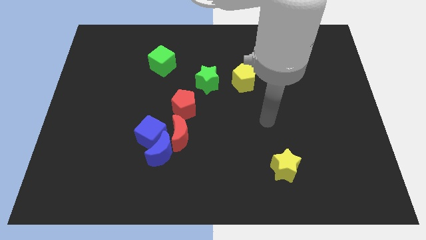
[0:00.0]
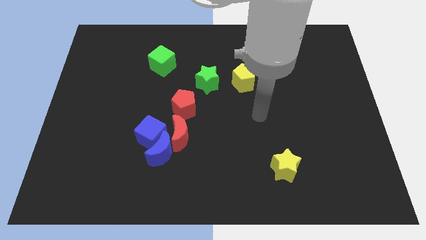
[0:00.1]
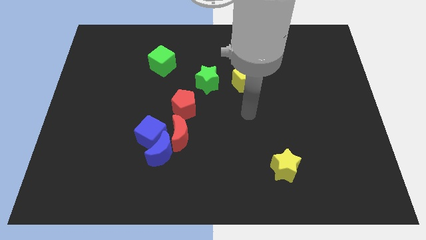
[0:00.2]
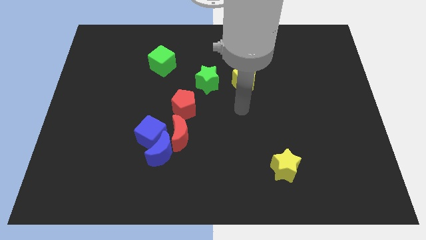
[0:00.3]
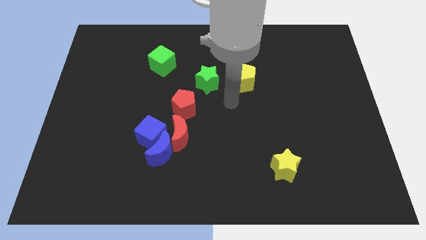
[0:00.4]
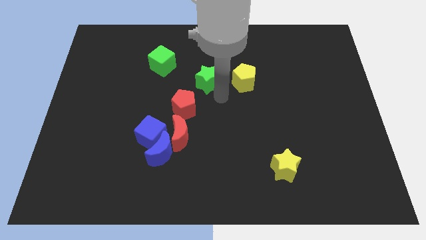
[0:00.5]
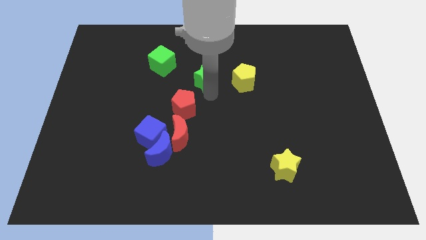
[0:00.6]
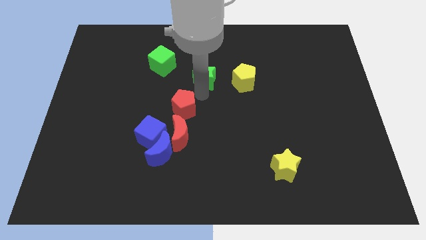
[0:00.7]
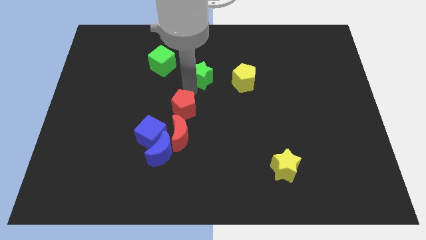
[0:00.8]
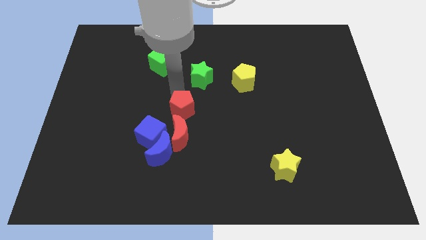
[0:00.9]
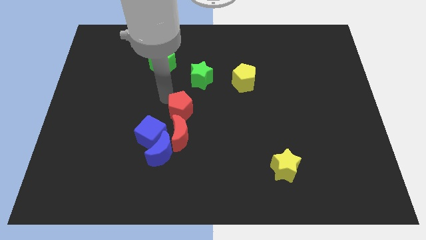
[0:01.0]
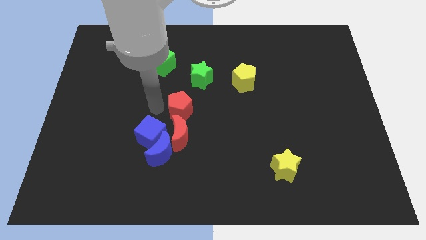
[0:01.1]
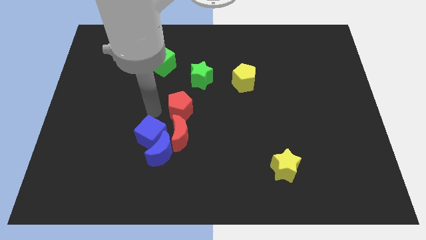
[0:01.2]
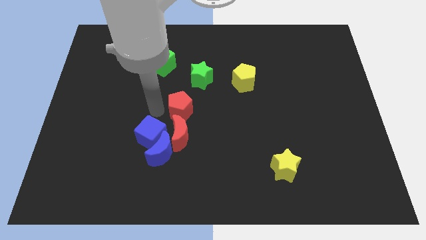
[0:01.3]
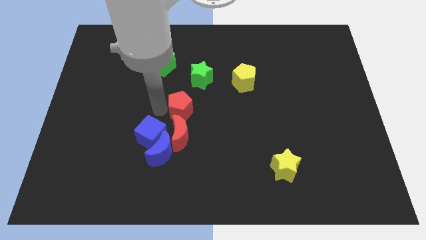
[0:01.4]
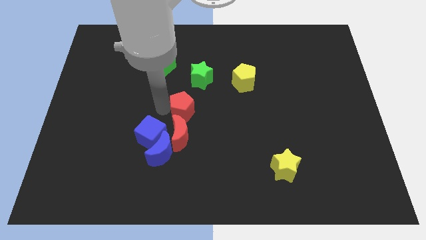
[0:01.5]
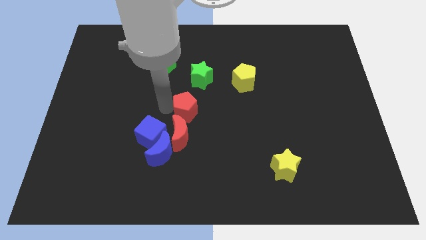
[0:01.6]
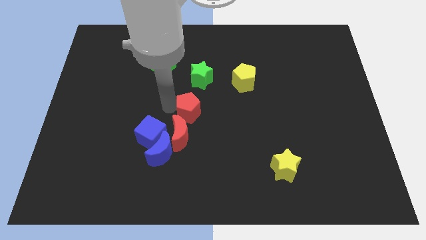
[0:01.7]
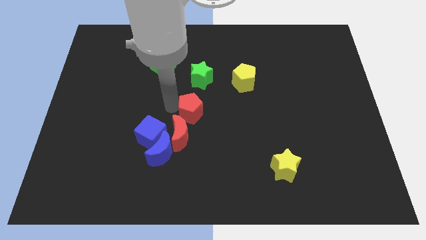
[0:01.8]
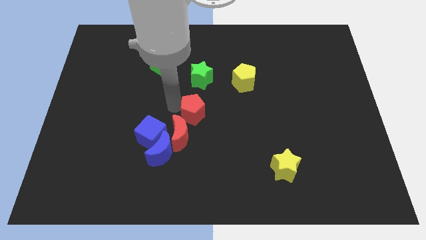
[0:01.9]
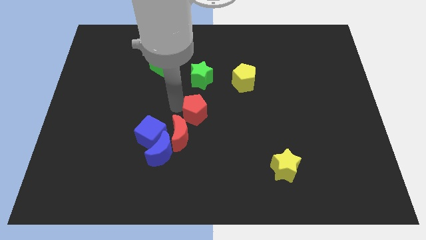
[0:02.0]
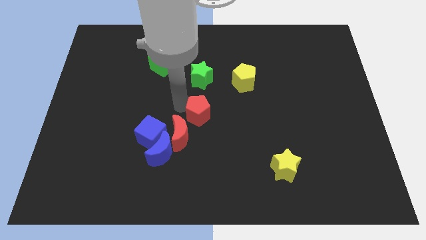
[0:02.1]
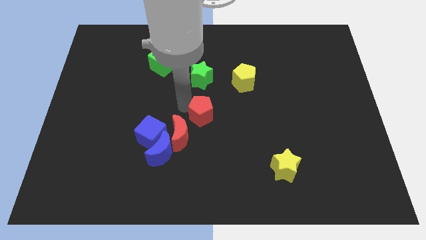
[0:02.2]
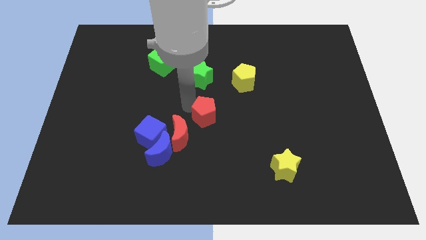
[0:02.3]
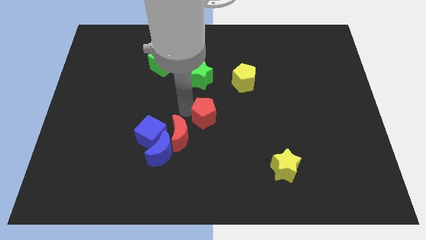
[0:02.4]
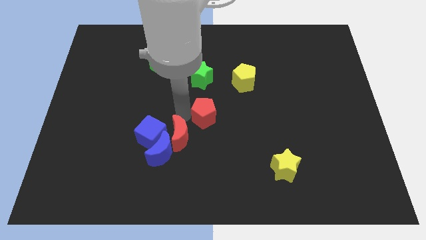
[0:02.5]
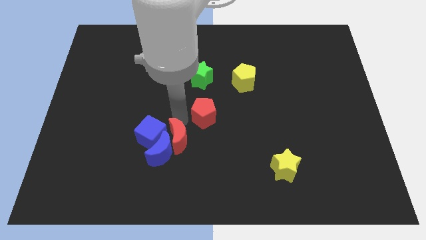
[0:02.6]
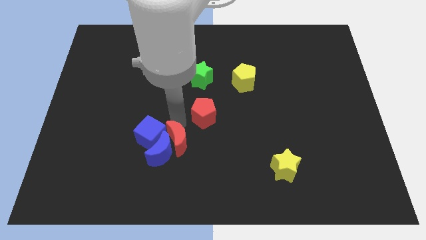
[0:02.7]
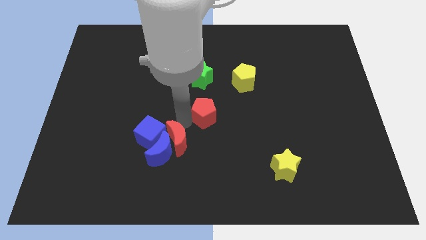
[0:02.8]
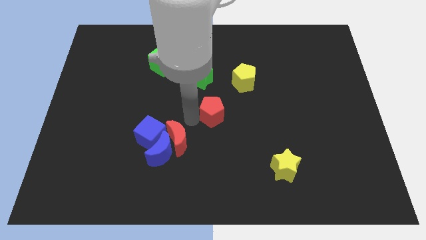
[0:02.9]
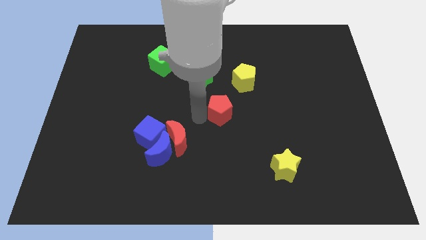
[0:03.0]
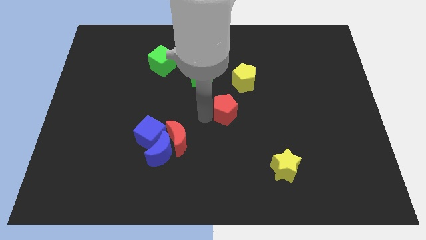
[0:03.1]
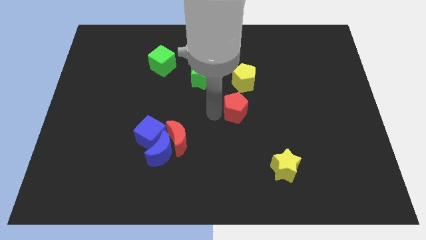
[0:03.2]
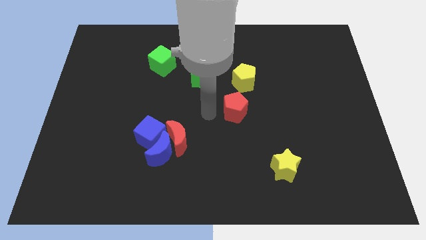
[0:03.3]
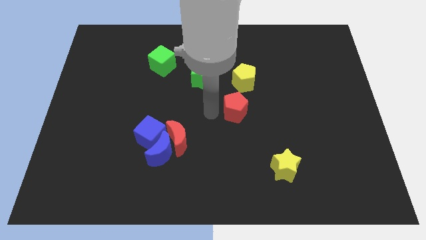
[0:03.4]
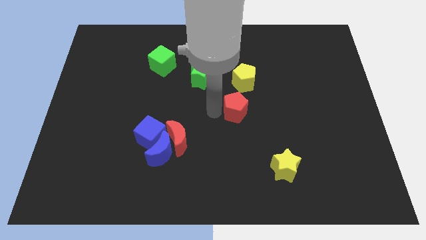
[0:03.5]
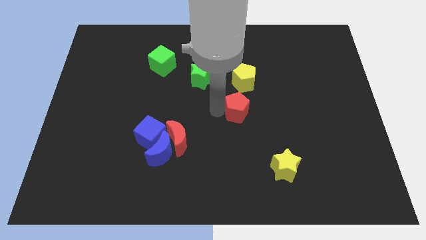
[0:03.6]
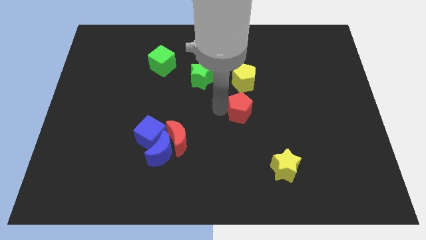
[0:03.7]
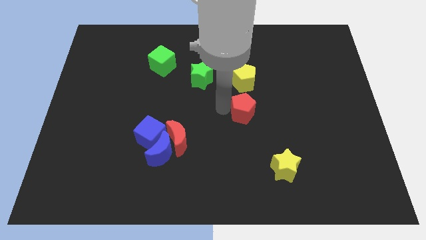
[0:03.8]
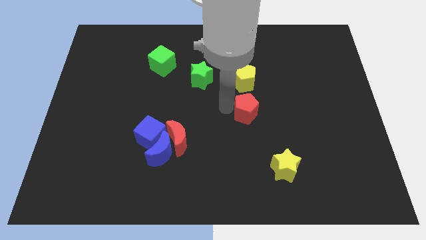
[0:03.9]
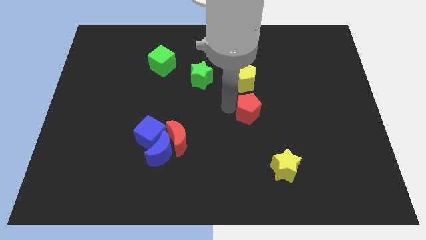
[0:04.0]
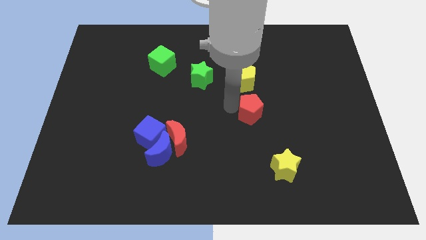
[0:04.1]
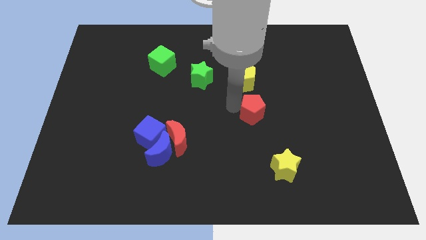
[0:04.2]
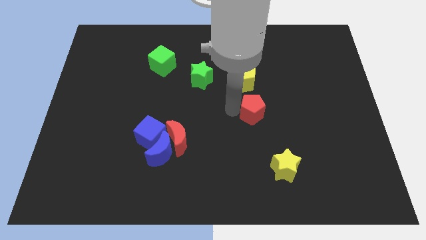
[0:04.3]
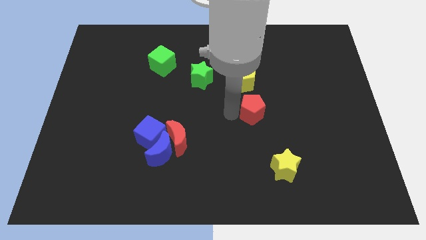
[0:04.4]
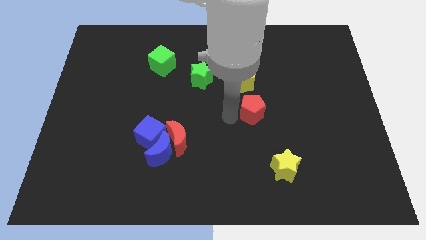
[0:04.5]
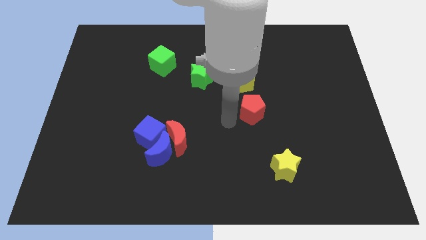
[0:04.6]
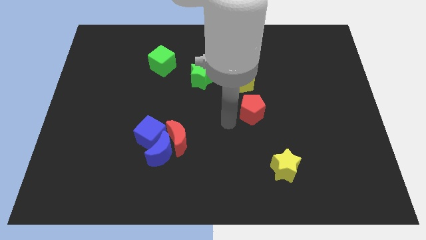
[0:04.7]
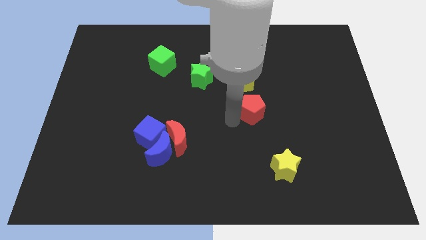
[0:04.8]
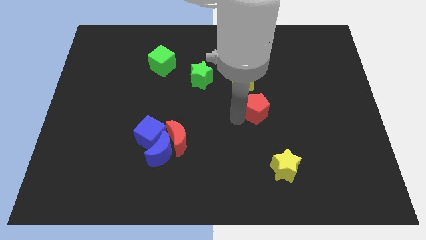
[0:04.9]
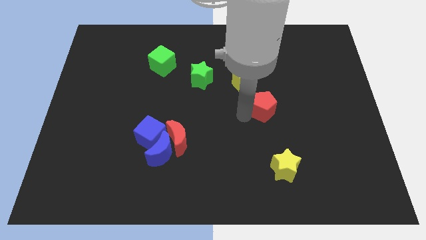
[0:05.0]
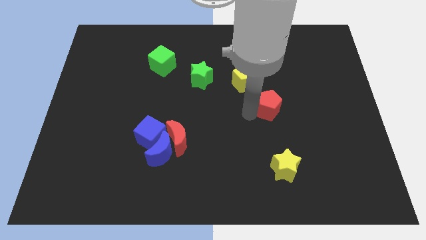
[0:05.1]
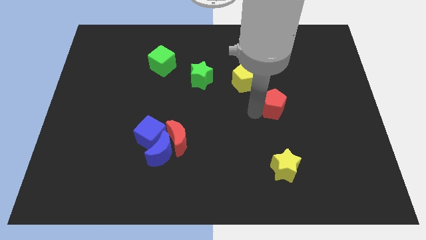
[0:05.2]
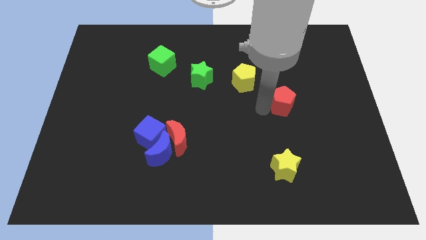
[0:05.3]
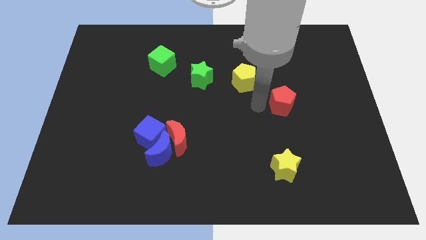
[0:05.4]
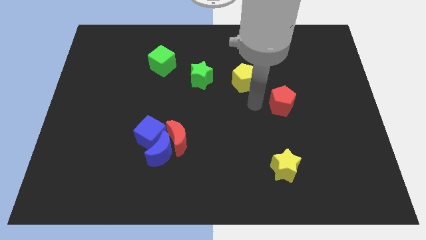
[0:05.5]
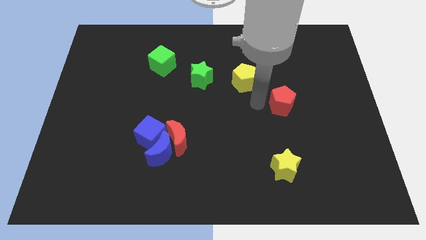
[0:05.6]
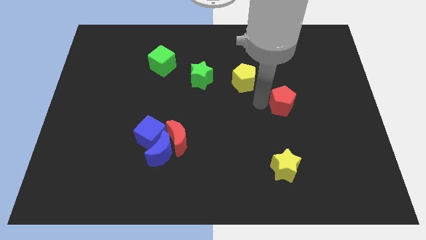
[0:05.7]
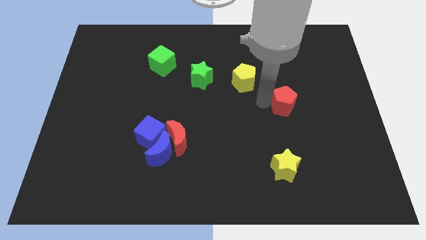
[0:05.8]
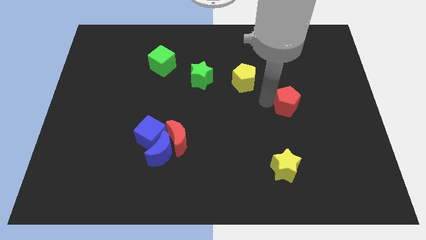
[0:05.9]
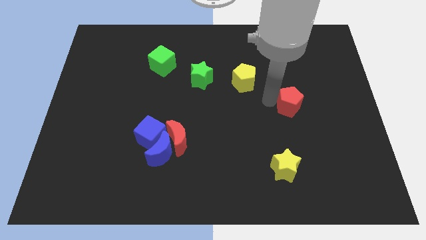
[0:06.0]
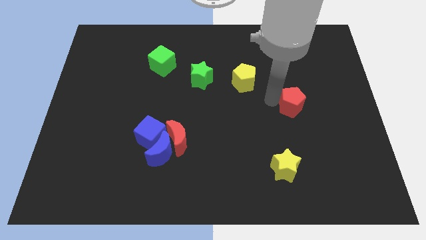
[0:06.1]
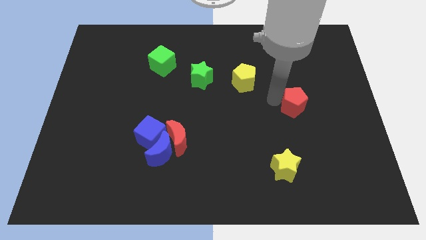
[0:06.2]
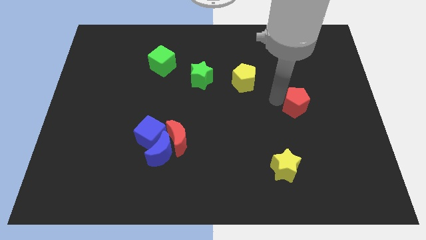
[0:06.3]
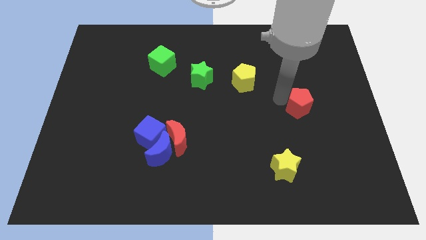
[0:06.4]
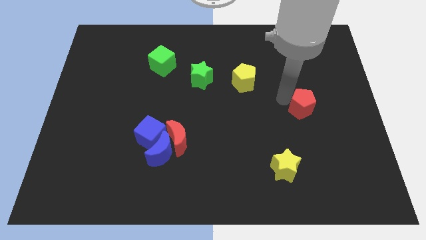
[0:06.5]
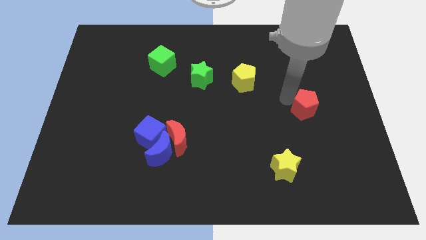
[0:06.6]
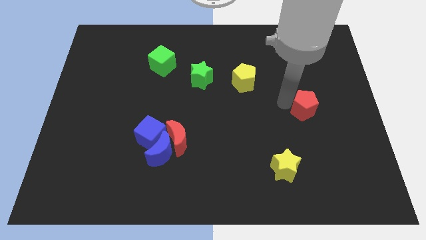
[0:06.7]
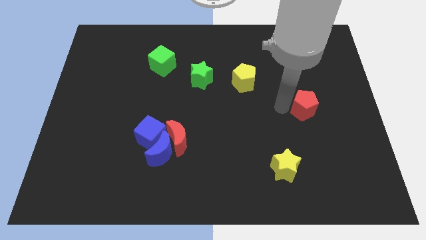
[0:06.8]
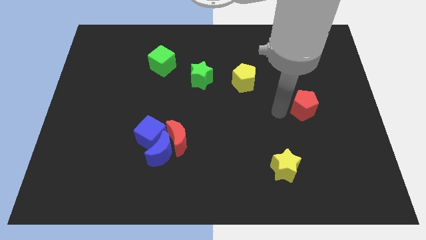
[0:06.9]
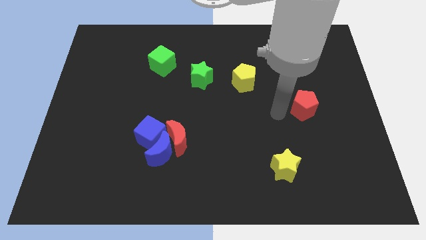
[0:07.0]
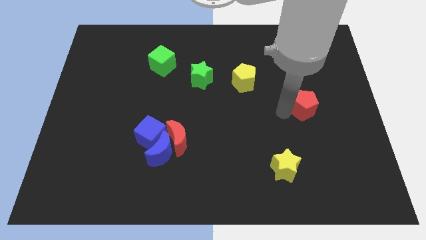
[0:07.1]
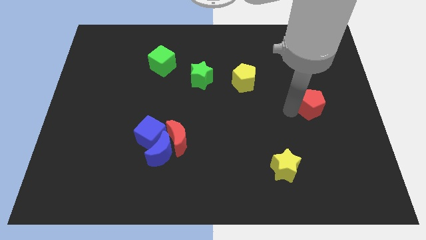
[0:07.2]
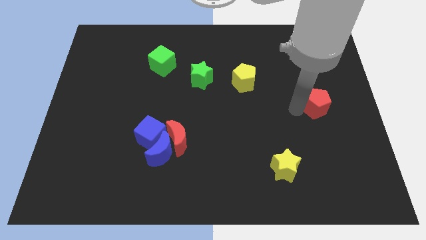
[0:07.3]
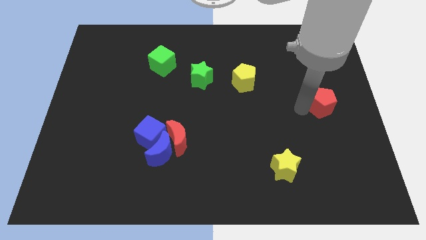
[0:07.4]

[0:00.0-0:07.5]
move the red pentagon to the center right
